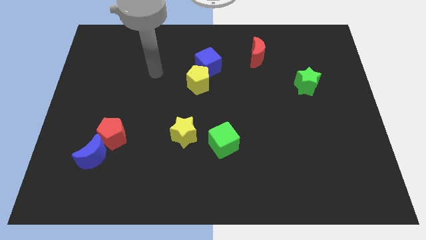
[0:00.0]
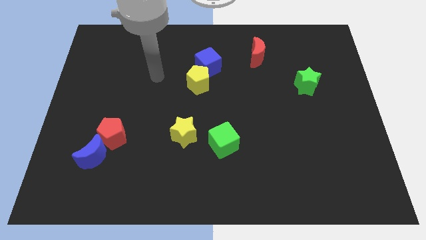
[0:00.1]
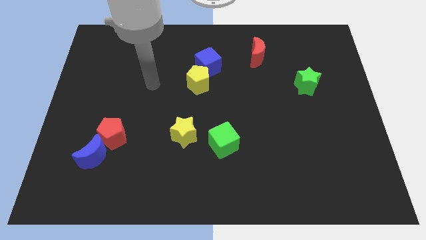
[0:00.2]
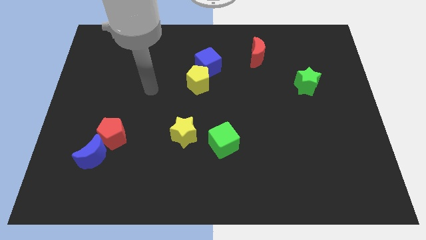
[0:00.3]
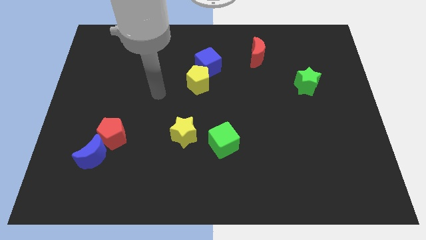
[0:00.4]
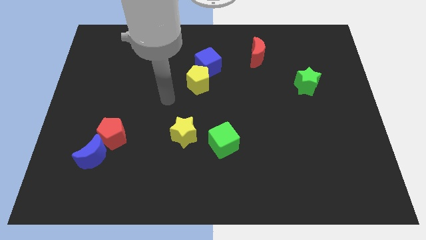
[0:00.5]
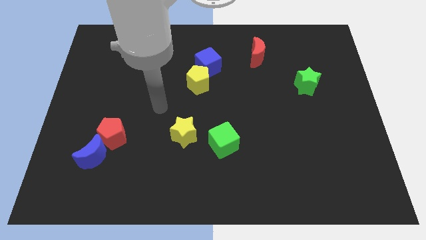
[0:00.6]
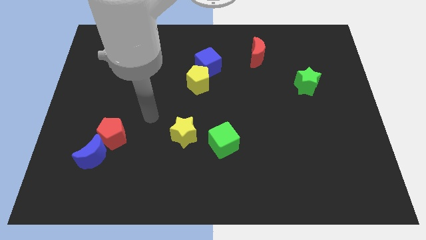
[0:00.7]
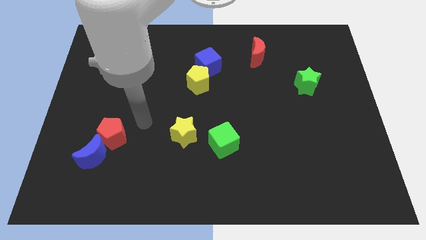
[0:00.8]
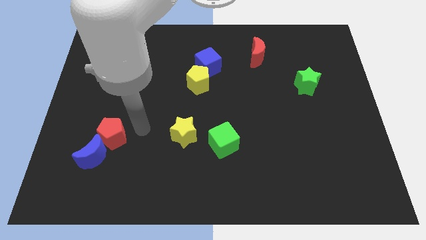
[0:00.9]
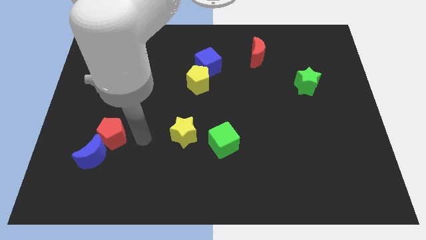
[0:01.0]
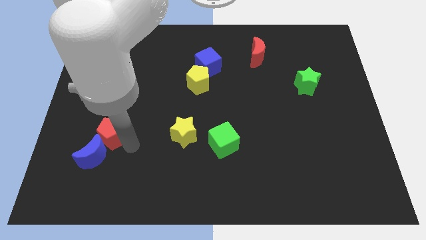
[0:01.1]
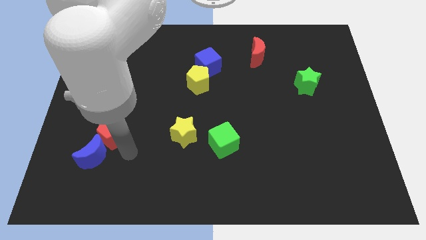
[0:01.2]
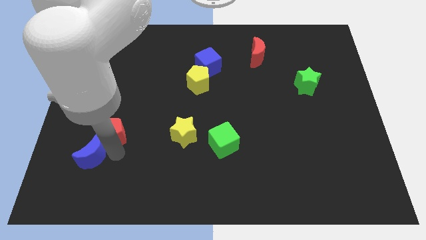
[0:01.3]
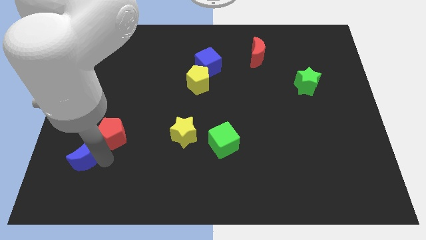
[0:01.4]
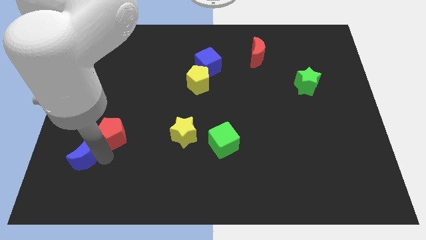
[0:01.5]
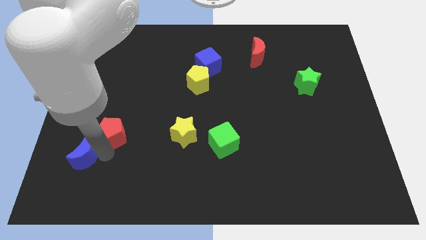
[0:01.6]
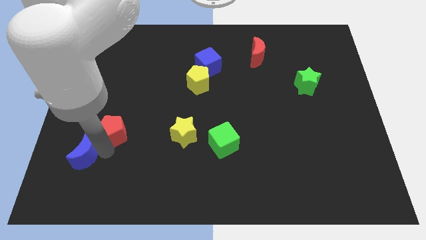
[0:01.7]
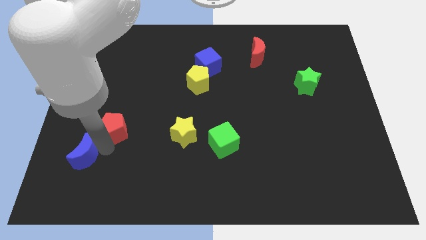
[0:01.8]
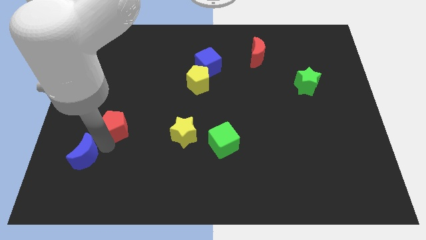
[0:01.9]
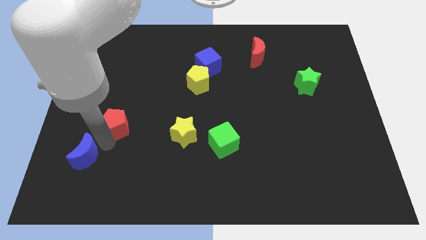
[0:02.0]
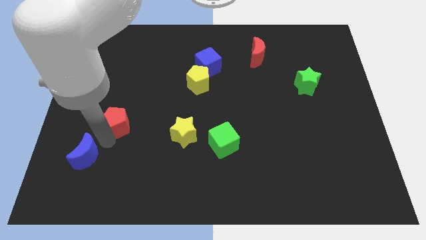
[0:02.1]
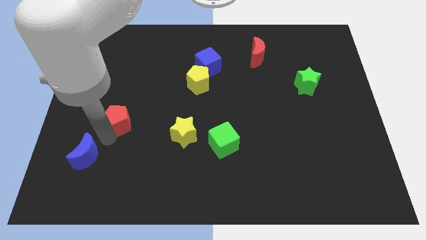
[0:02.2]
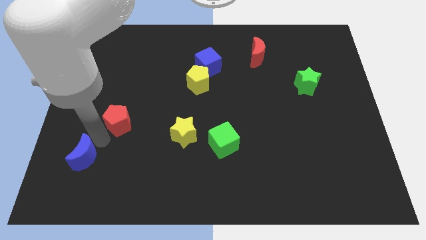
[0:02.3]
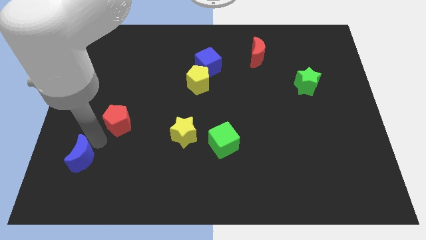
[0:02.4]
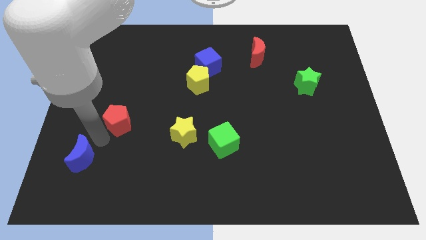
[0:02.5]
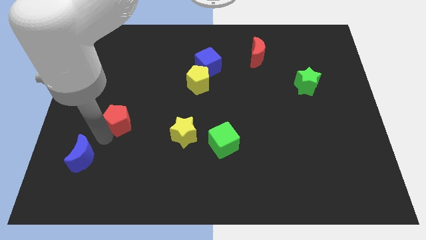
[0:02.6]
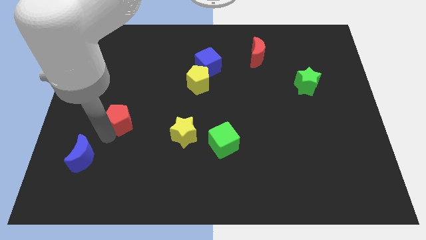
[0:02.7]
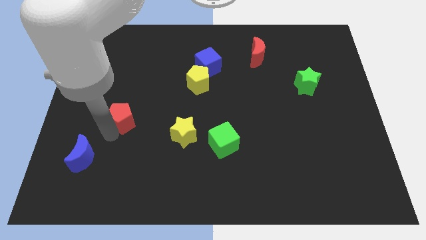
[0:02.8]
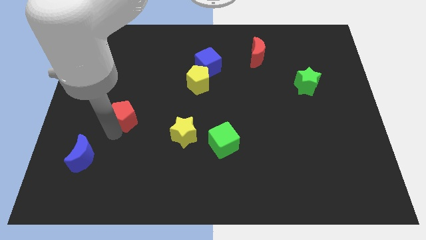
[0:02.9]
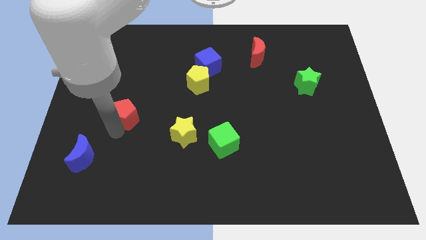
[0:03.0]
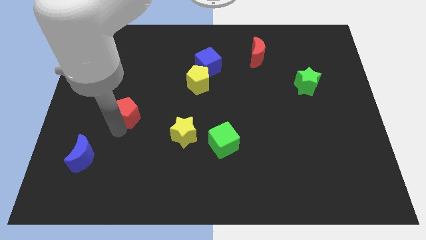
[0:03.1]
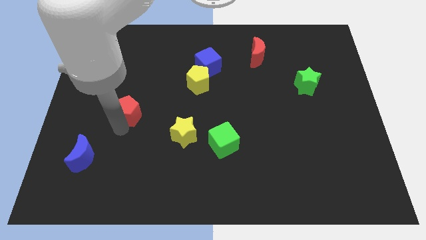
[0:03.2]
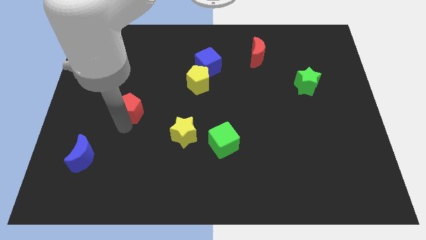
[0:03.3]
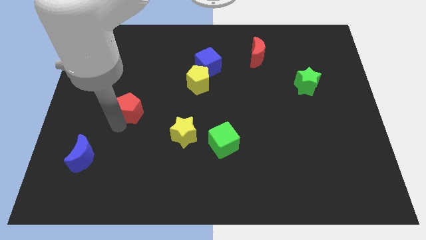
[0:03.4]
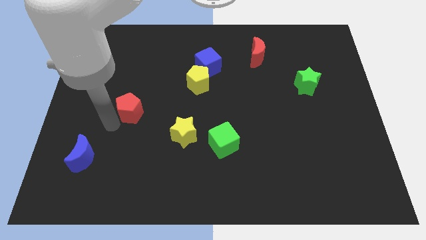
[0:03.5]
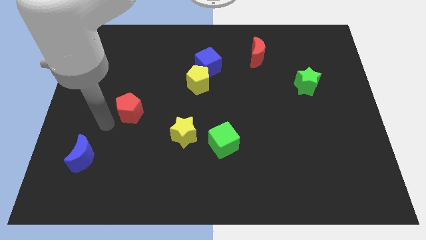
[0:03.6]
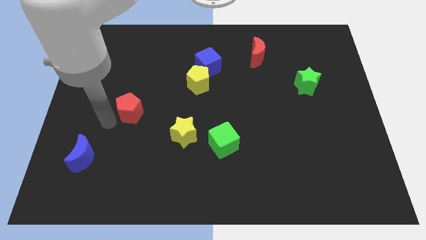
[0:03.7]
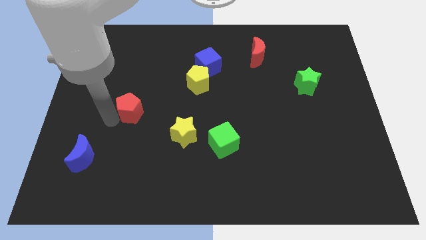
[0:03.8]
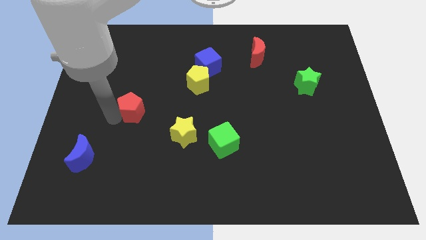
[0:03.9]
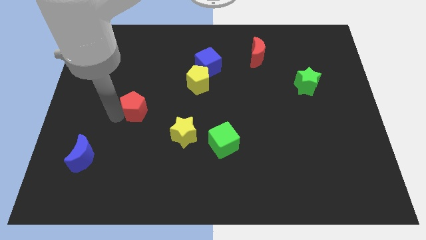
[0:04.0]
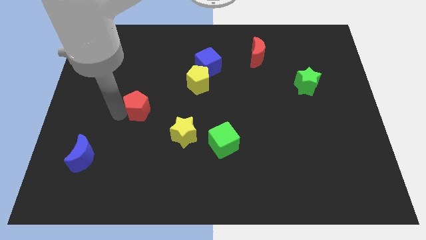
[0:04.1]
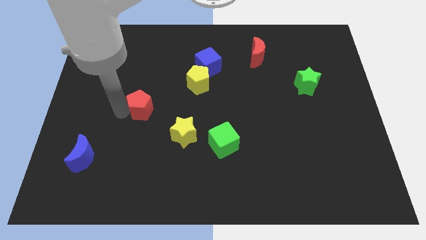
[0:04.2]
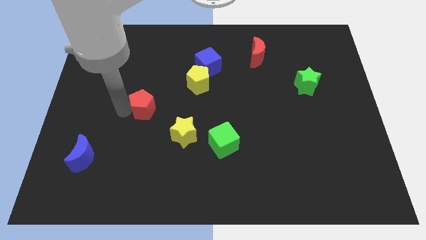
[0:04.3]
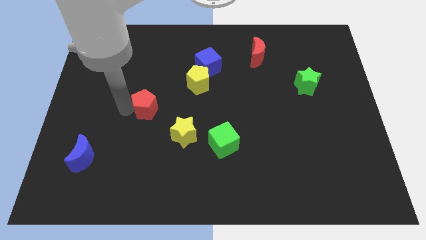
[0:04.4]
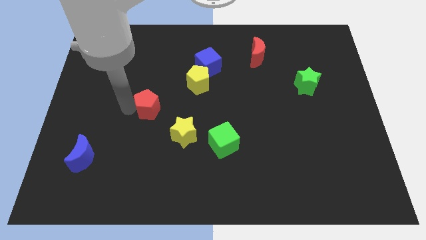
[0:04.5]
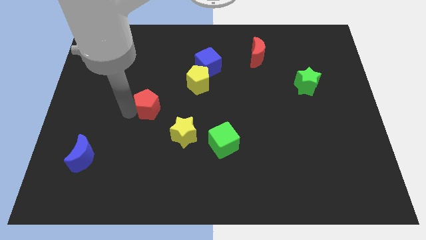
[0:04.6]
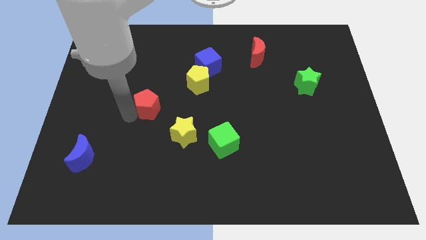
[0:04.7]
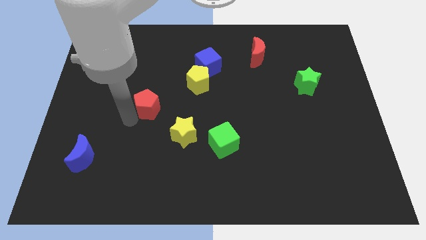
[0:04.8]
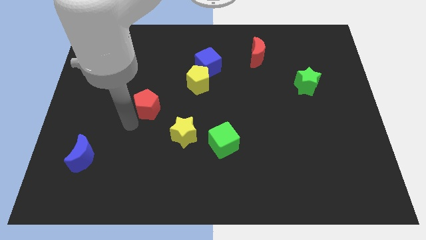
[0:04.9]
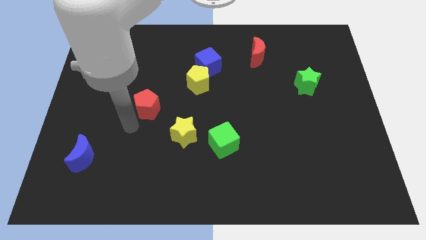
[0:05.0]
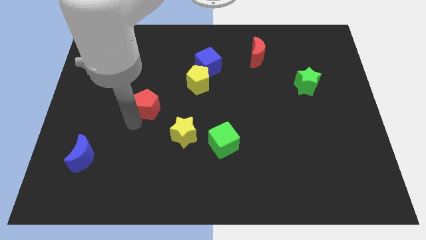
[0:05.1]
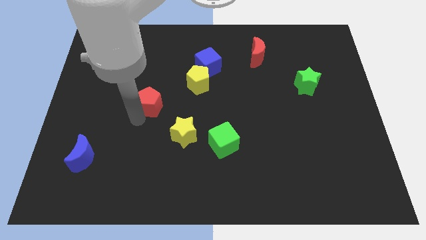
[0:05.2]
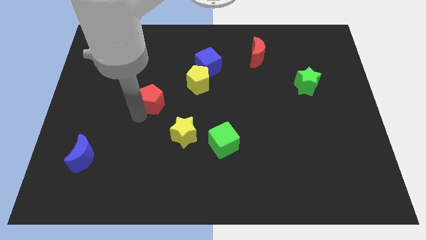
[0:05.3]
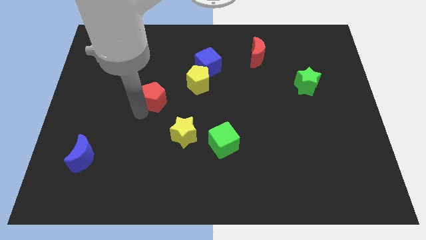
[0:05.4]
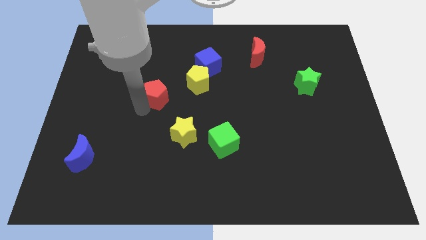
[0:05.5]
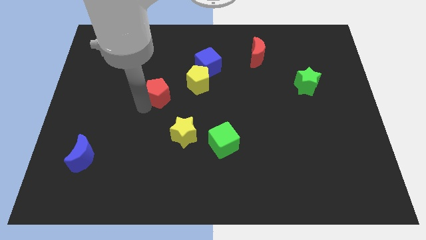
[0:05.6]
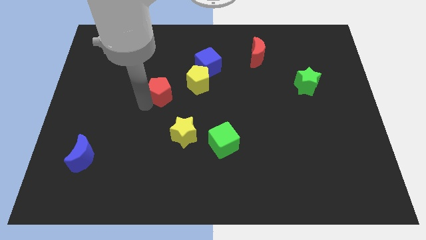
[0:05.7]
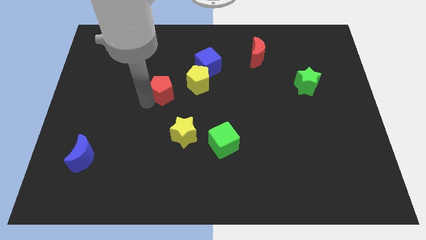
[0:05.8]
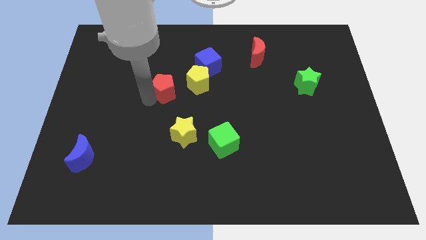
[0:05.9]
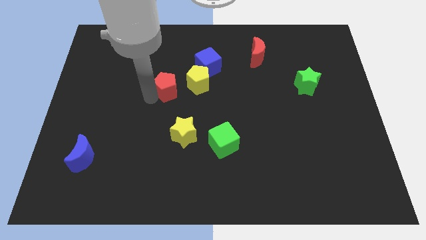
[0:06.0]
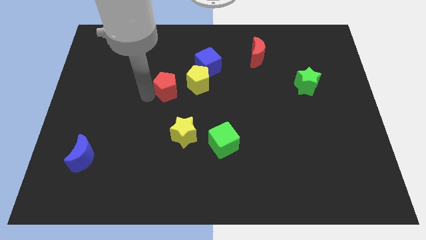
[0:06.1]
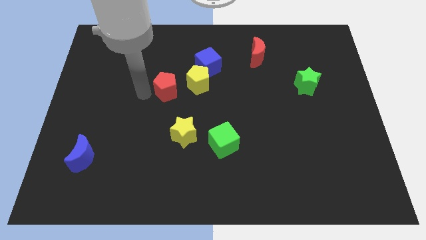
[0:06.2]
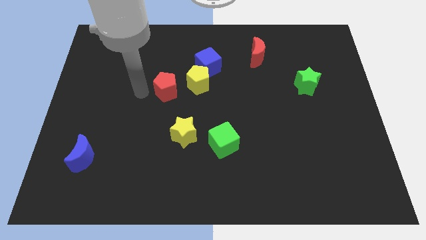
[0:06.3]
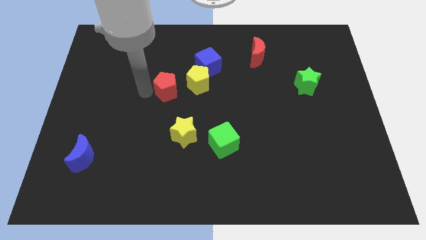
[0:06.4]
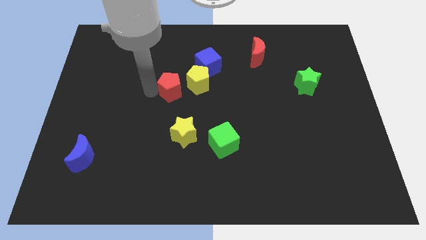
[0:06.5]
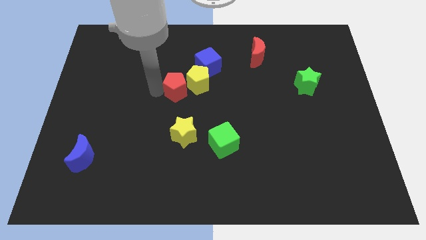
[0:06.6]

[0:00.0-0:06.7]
push the red pentagon close to the yellow pentagon

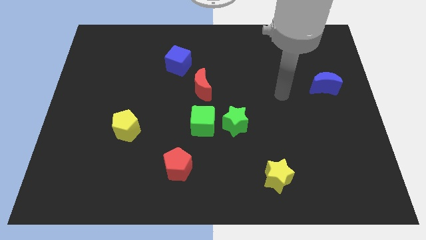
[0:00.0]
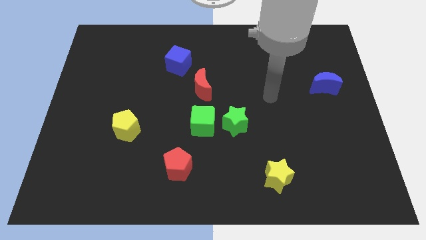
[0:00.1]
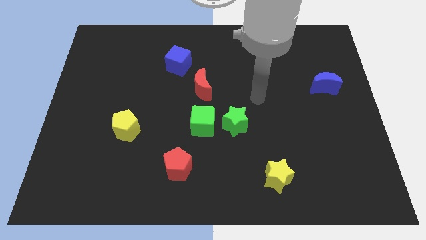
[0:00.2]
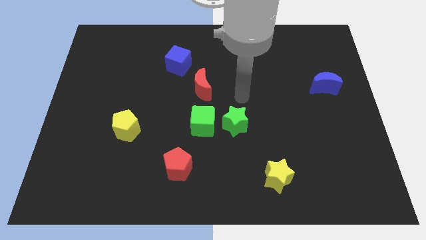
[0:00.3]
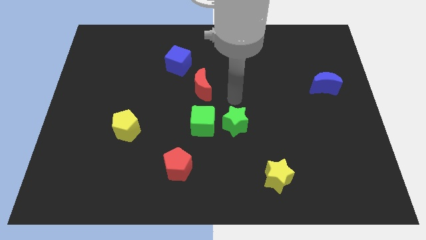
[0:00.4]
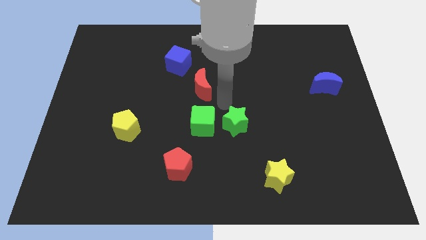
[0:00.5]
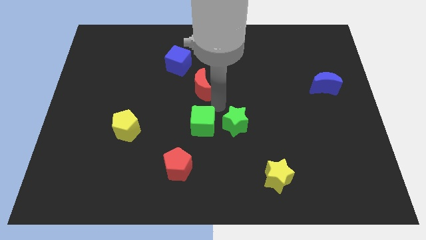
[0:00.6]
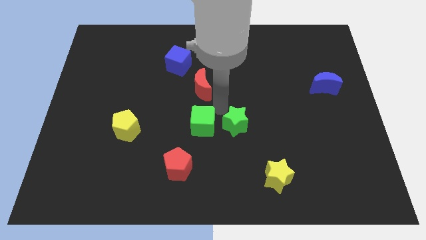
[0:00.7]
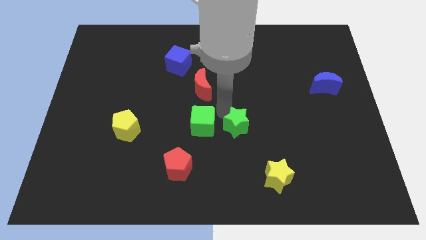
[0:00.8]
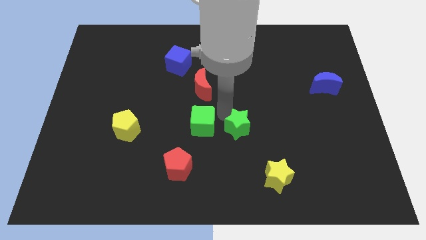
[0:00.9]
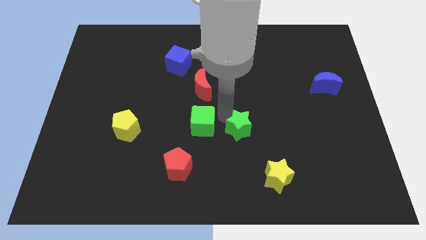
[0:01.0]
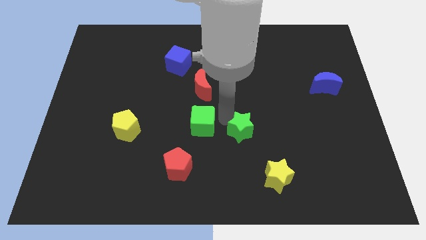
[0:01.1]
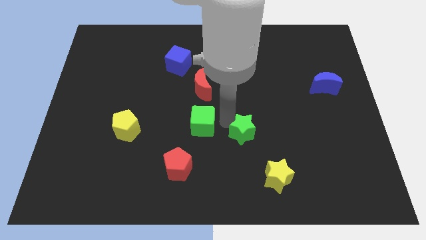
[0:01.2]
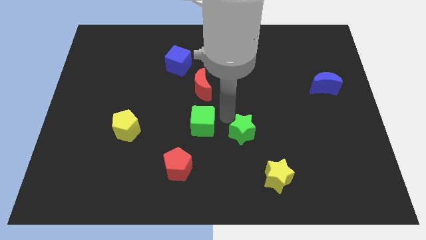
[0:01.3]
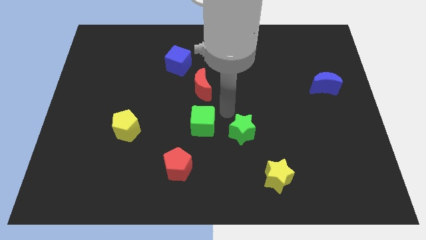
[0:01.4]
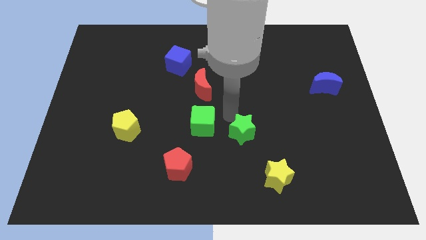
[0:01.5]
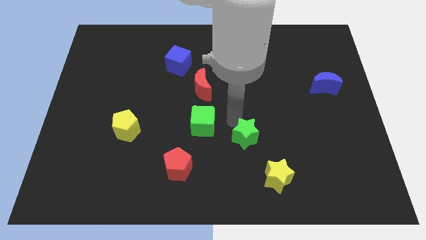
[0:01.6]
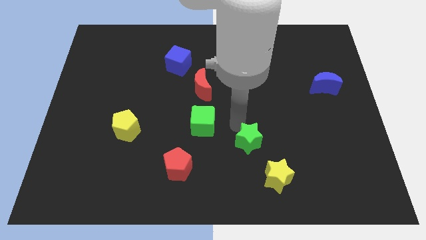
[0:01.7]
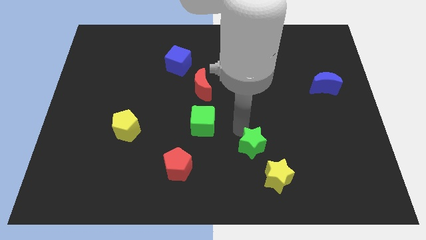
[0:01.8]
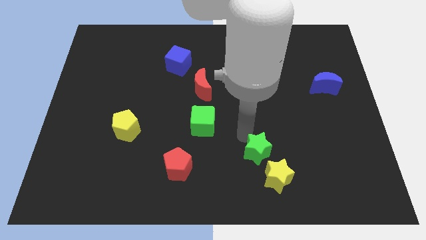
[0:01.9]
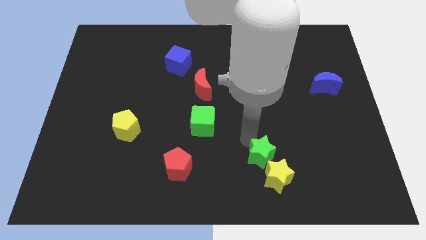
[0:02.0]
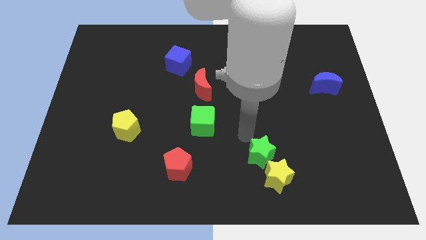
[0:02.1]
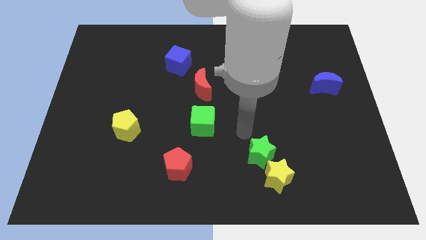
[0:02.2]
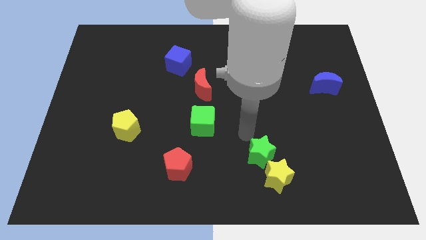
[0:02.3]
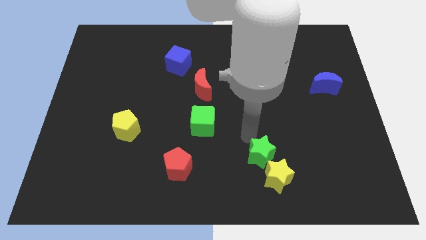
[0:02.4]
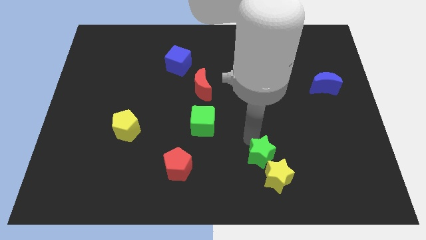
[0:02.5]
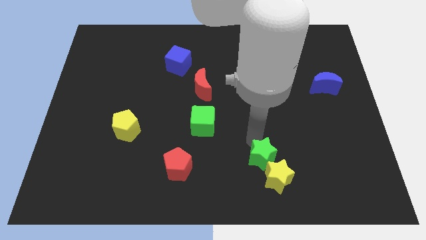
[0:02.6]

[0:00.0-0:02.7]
push the green star close to the yellow star
